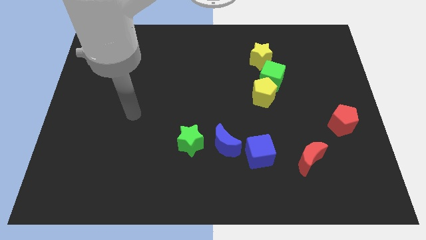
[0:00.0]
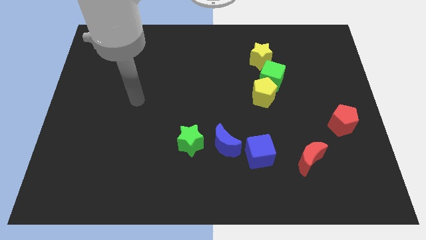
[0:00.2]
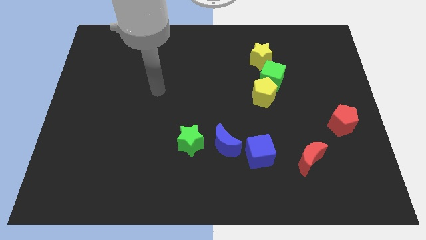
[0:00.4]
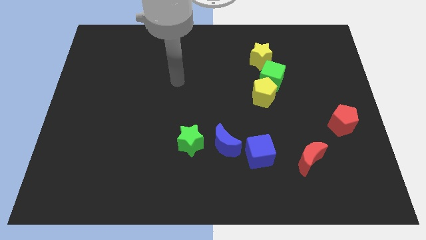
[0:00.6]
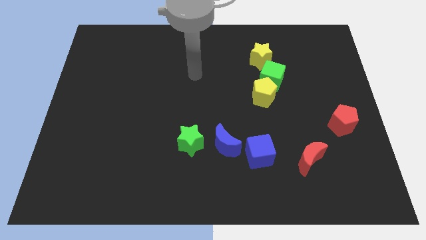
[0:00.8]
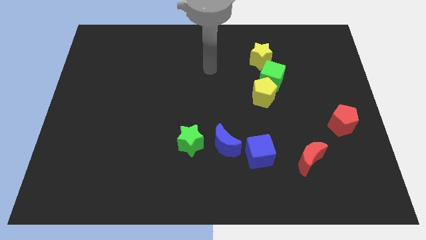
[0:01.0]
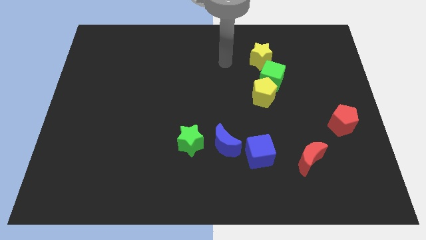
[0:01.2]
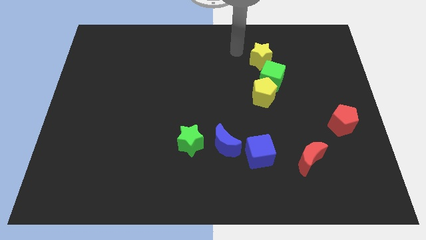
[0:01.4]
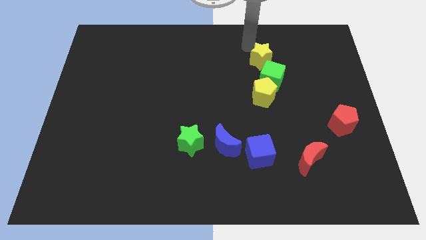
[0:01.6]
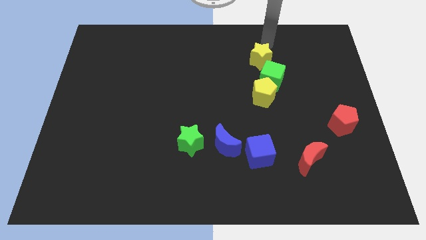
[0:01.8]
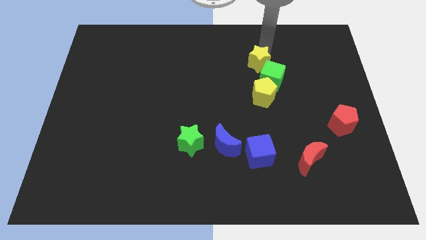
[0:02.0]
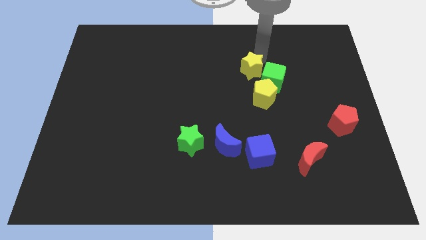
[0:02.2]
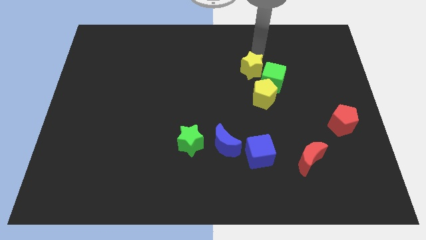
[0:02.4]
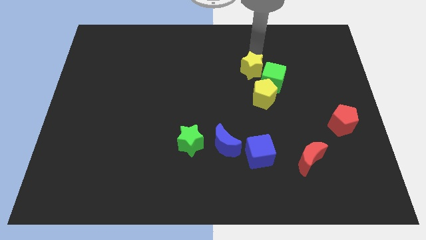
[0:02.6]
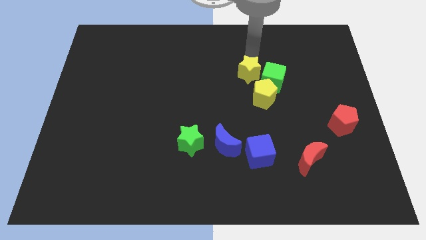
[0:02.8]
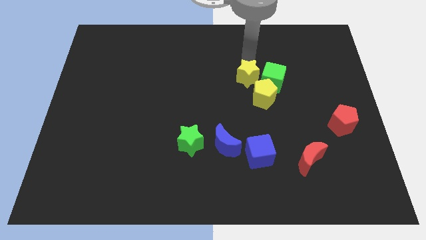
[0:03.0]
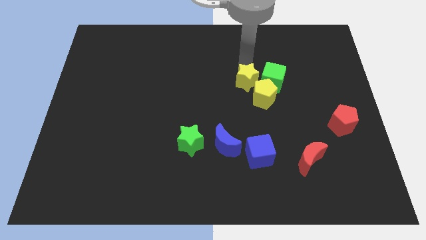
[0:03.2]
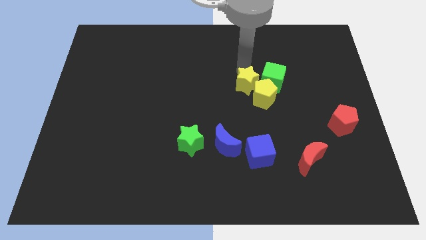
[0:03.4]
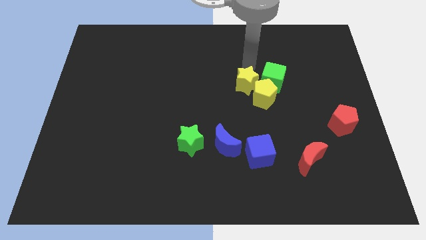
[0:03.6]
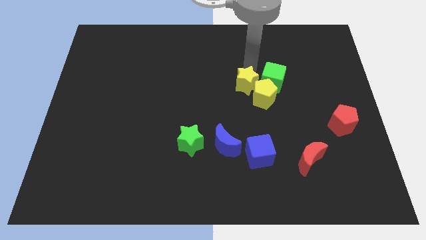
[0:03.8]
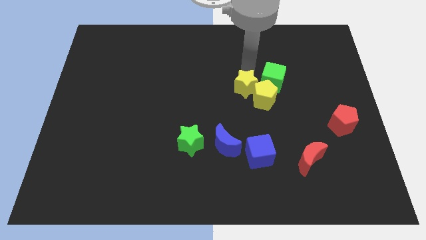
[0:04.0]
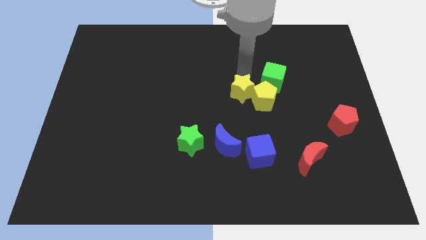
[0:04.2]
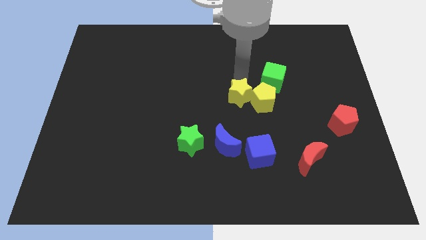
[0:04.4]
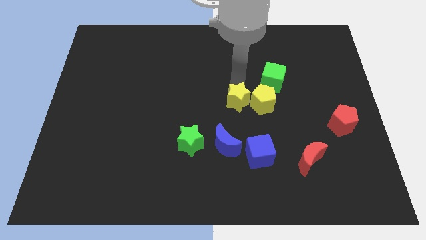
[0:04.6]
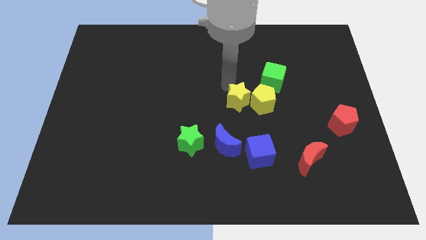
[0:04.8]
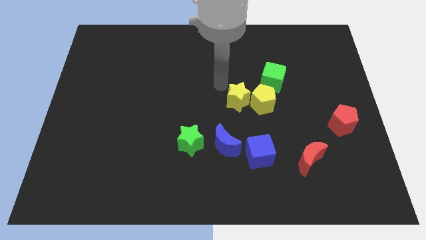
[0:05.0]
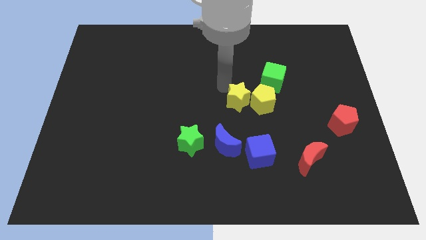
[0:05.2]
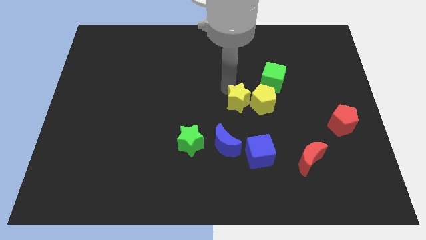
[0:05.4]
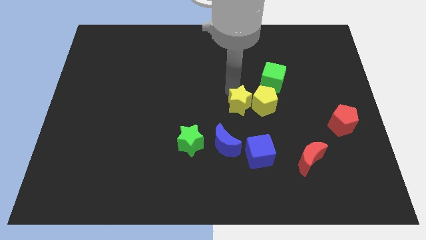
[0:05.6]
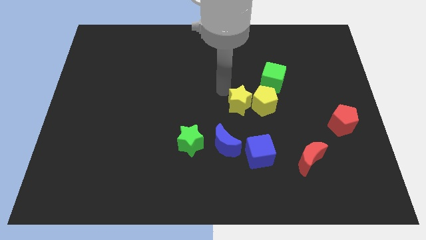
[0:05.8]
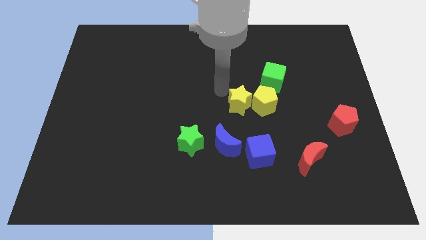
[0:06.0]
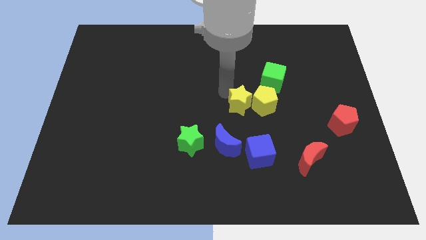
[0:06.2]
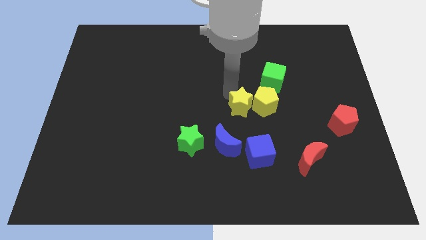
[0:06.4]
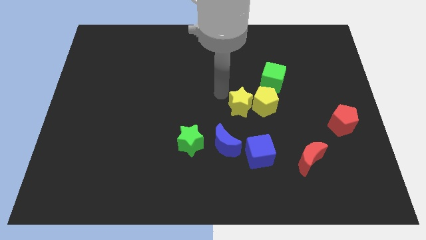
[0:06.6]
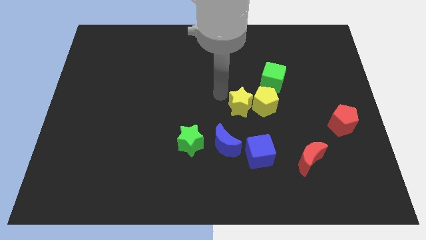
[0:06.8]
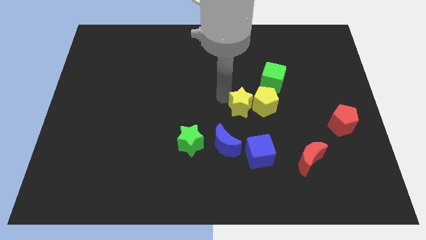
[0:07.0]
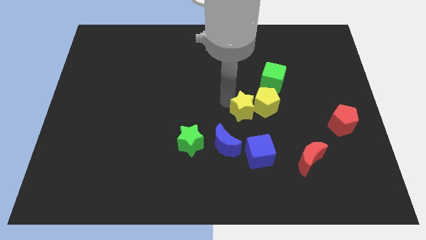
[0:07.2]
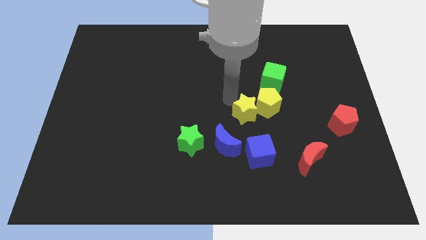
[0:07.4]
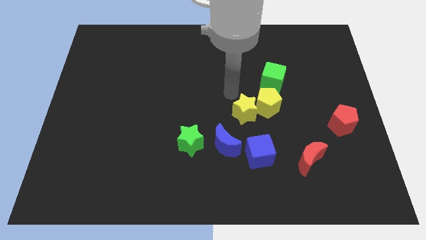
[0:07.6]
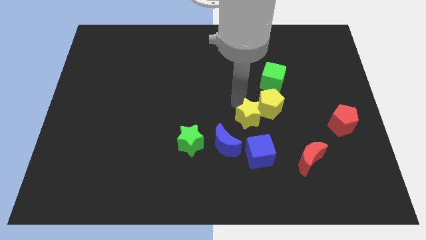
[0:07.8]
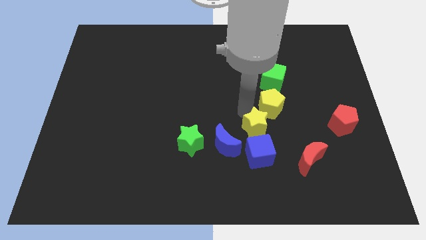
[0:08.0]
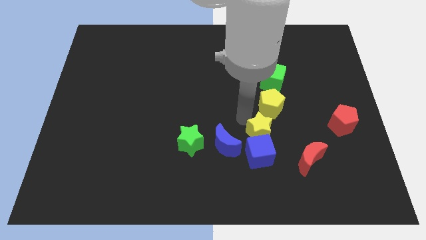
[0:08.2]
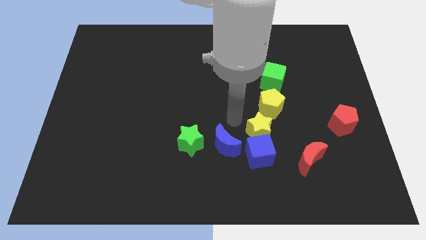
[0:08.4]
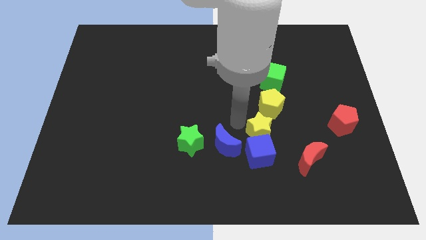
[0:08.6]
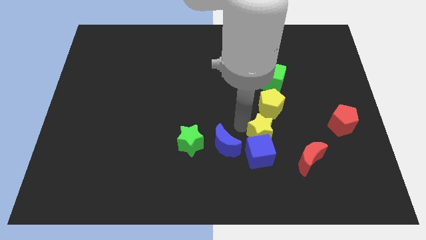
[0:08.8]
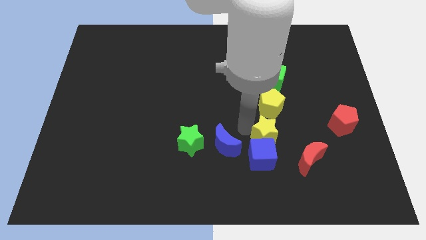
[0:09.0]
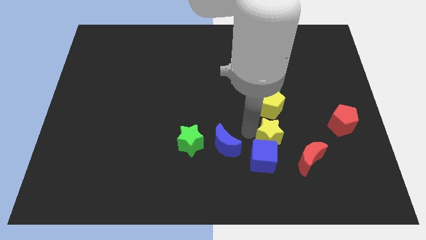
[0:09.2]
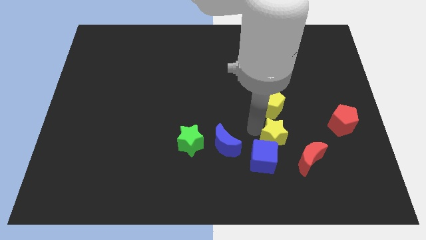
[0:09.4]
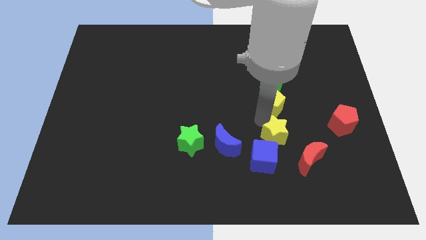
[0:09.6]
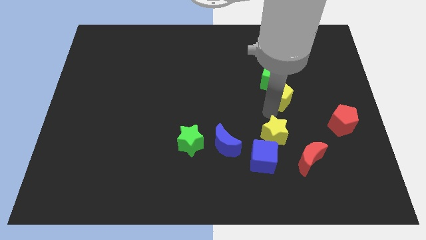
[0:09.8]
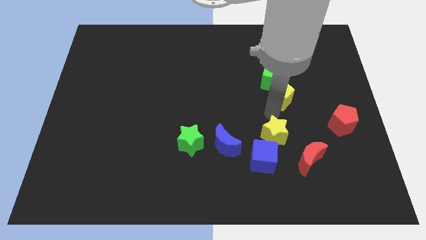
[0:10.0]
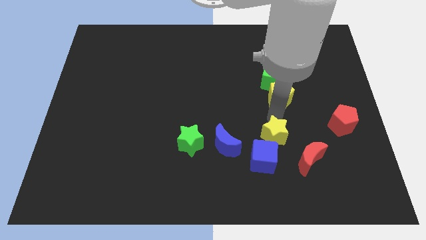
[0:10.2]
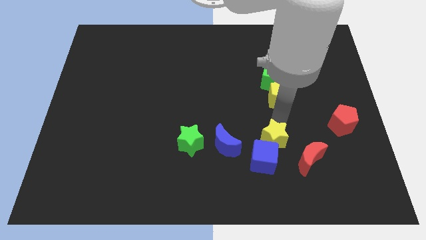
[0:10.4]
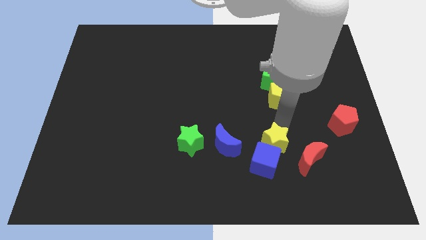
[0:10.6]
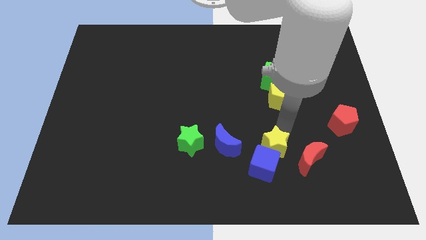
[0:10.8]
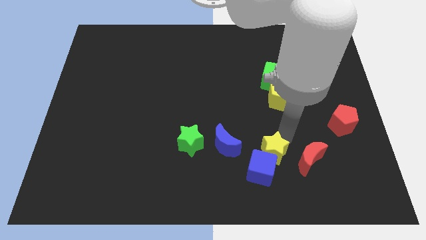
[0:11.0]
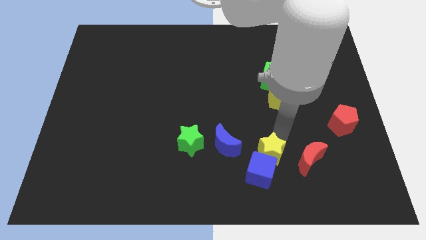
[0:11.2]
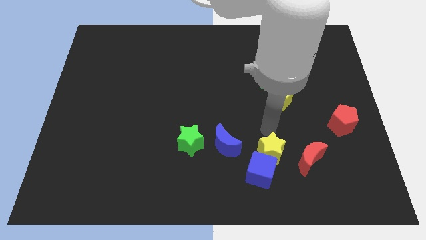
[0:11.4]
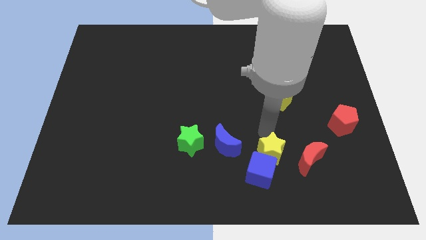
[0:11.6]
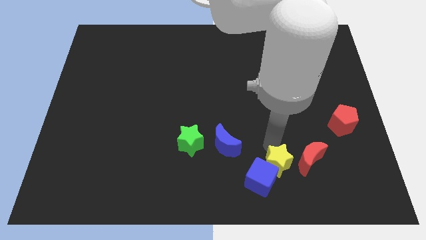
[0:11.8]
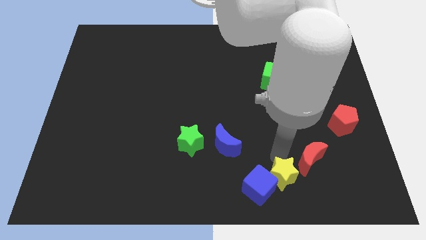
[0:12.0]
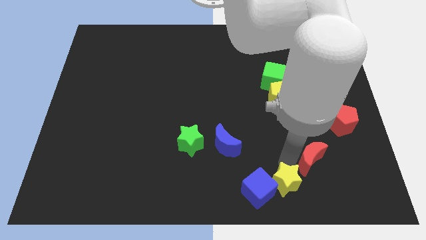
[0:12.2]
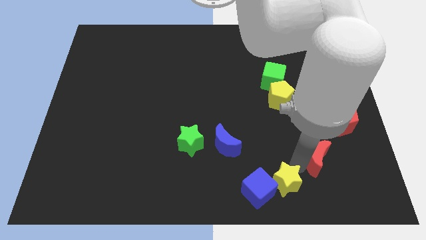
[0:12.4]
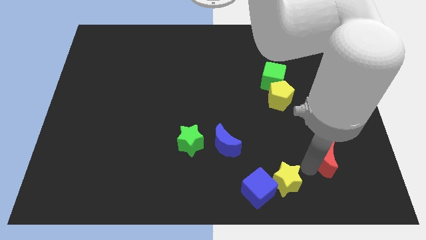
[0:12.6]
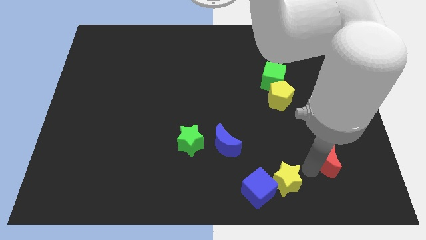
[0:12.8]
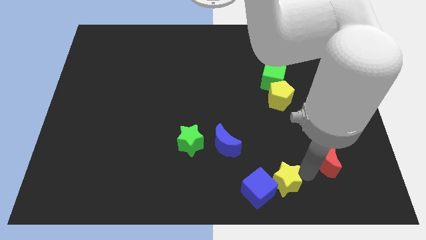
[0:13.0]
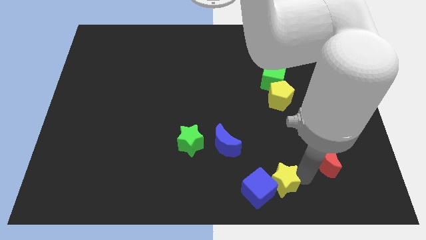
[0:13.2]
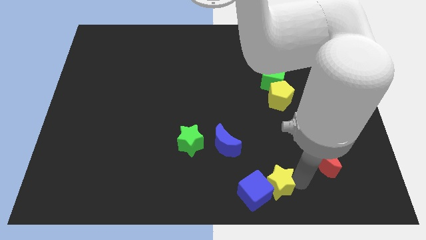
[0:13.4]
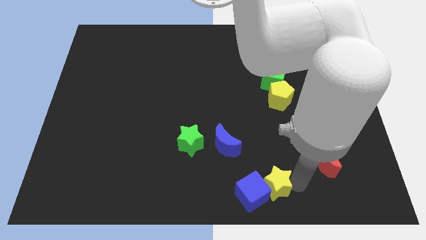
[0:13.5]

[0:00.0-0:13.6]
push the yellow star to the bottom side
